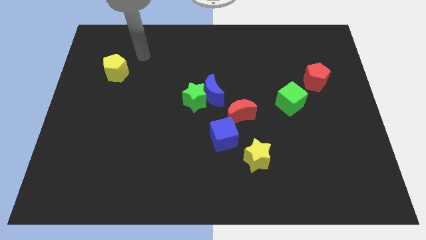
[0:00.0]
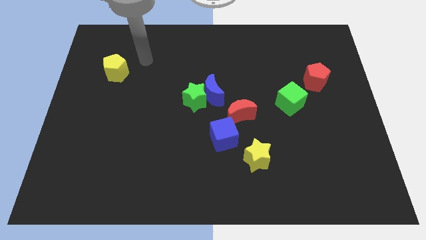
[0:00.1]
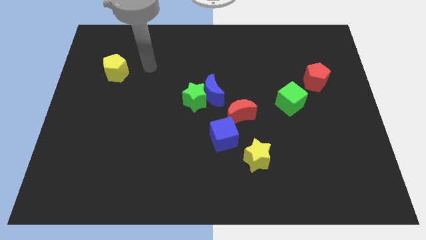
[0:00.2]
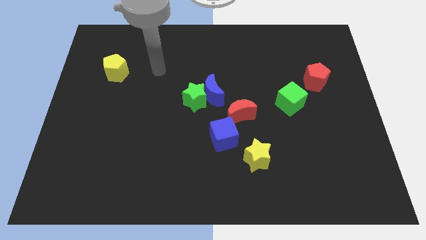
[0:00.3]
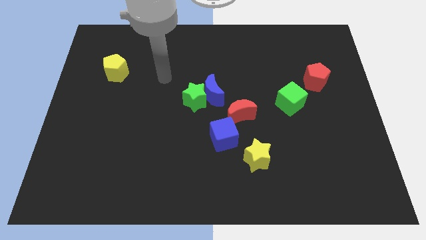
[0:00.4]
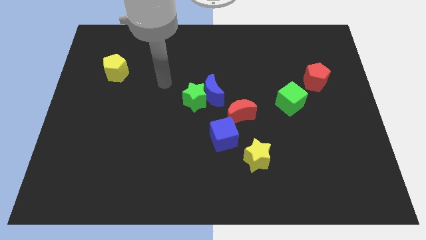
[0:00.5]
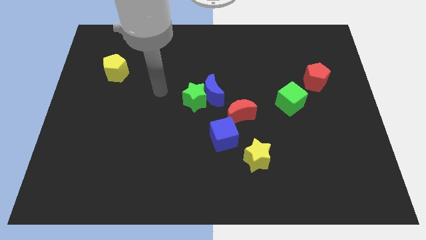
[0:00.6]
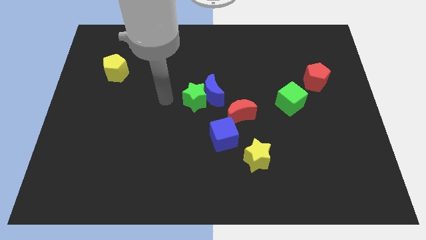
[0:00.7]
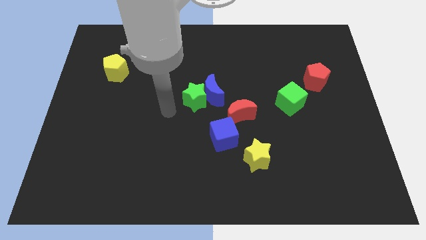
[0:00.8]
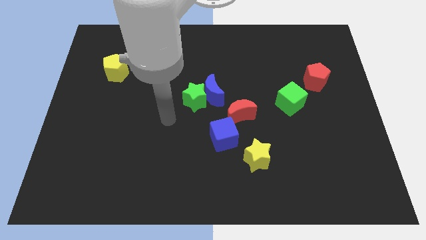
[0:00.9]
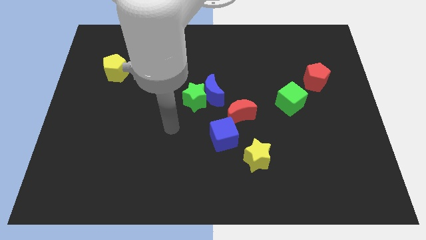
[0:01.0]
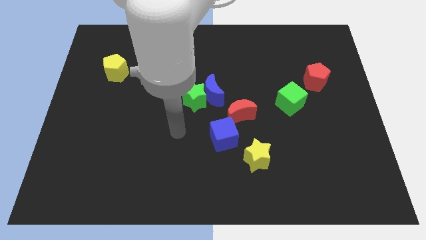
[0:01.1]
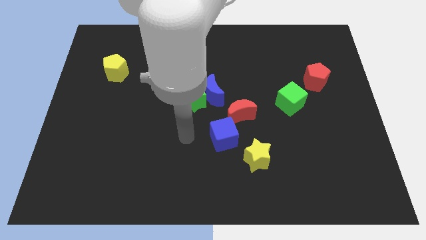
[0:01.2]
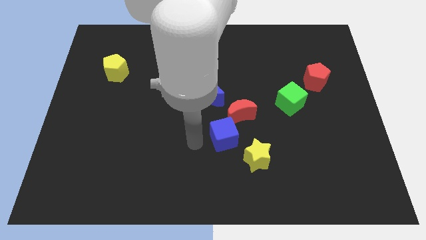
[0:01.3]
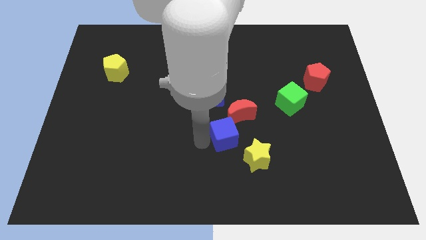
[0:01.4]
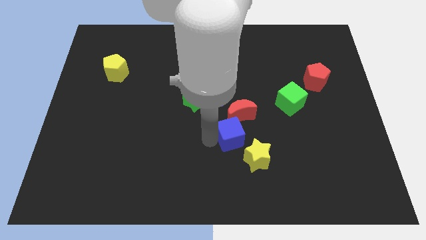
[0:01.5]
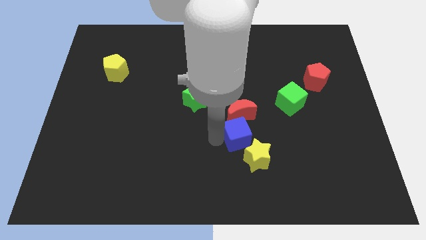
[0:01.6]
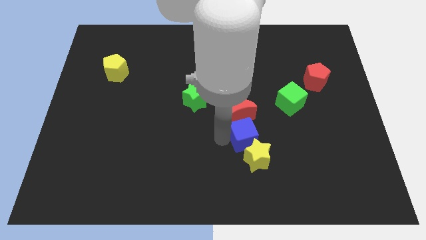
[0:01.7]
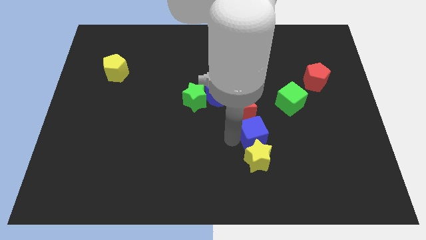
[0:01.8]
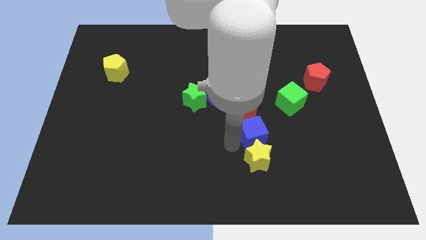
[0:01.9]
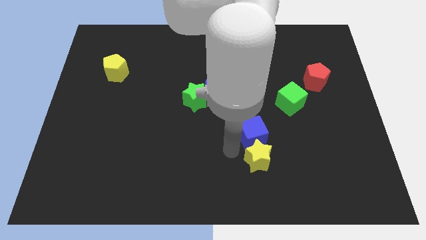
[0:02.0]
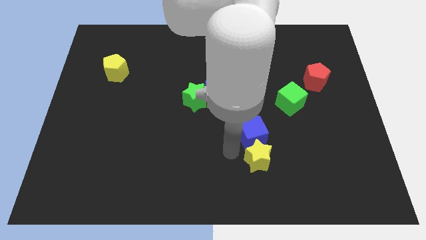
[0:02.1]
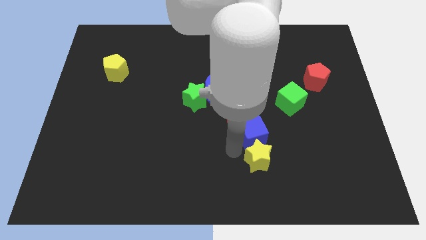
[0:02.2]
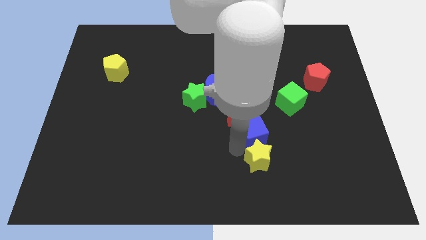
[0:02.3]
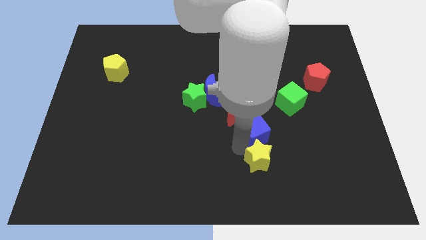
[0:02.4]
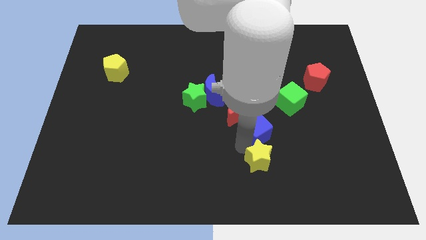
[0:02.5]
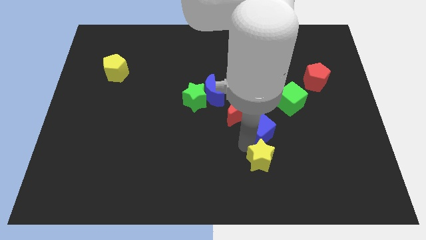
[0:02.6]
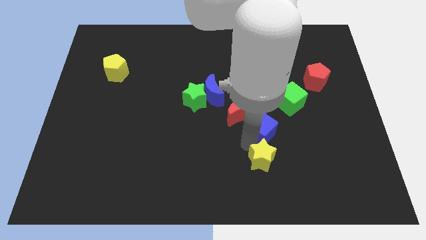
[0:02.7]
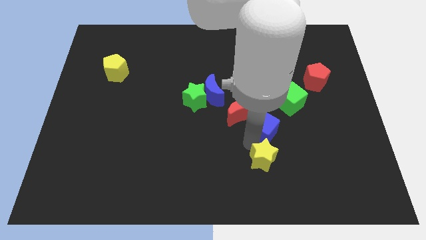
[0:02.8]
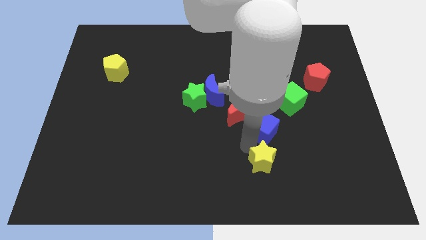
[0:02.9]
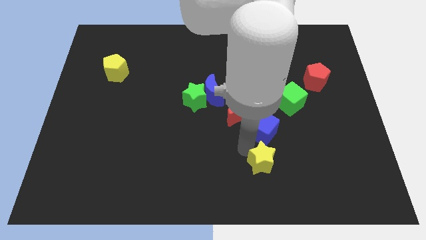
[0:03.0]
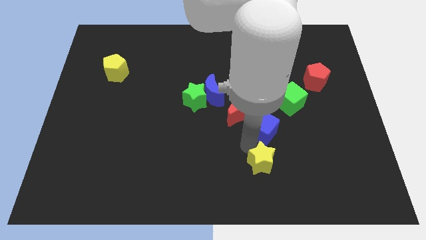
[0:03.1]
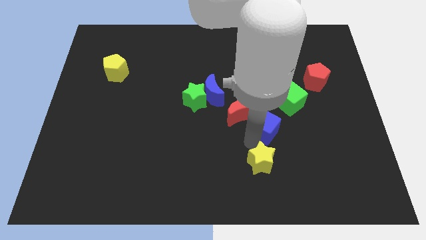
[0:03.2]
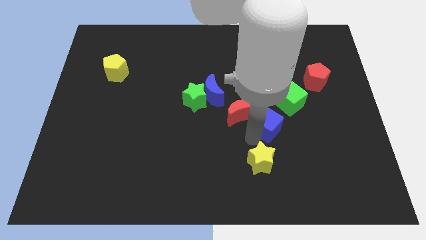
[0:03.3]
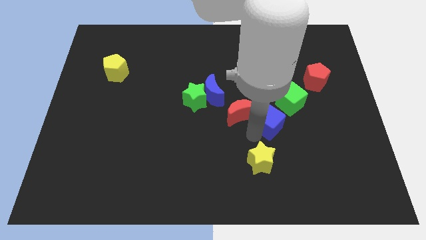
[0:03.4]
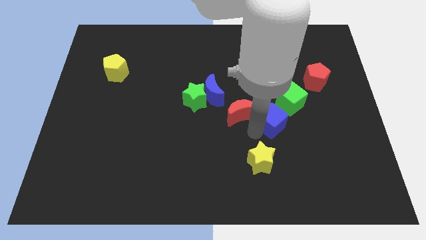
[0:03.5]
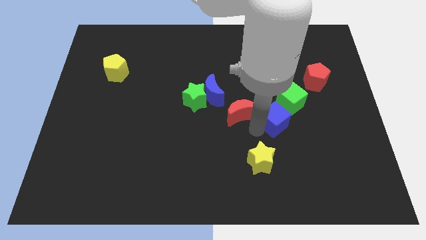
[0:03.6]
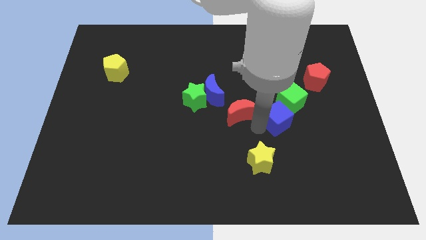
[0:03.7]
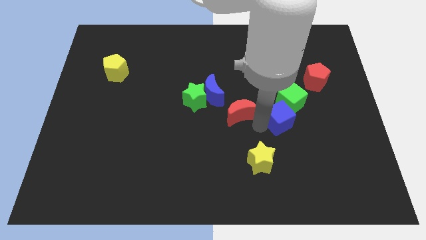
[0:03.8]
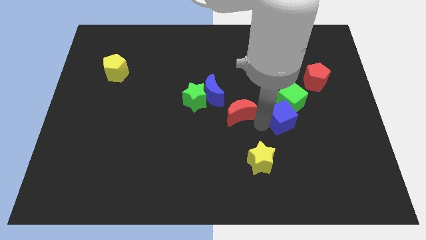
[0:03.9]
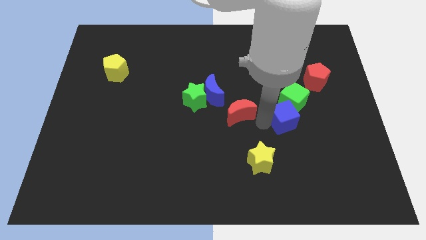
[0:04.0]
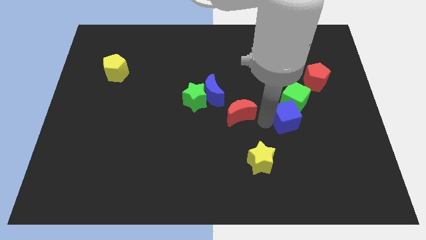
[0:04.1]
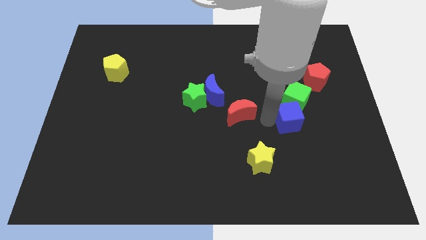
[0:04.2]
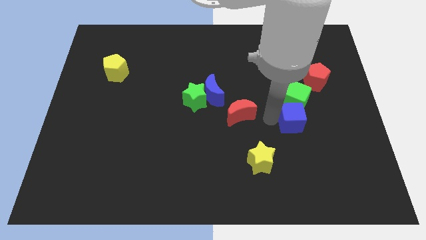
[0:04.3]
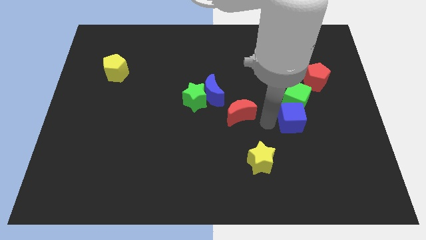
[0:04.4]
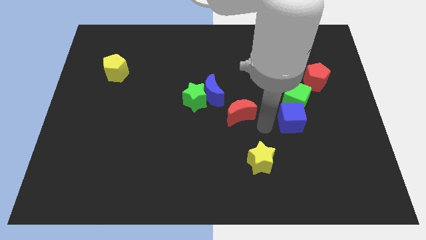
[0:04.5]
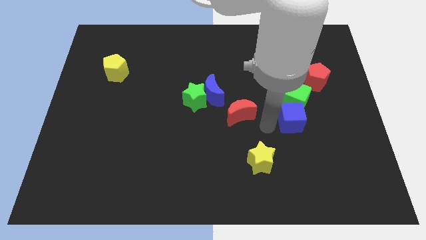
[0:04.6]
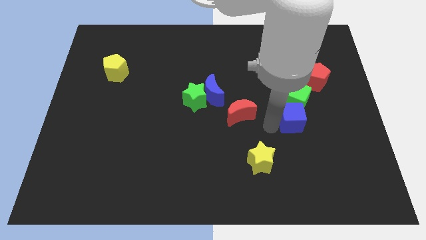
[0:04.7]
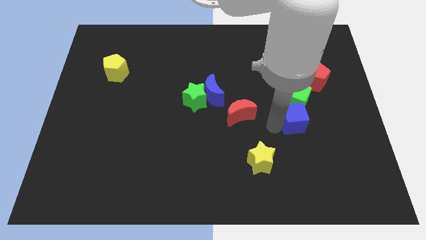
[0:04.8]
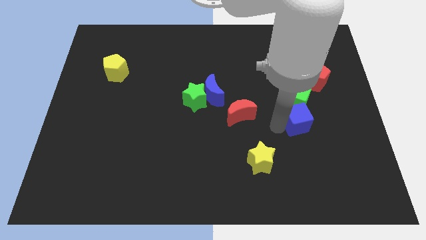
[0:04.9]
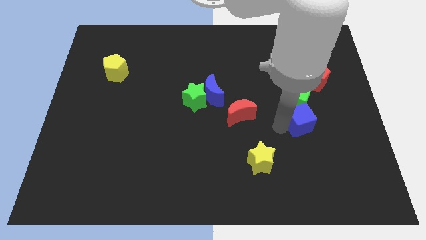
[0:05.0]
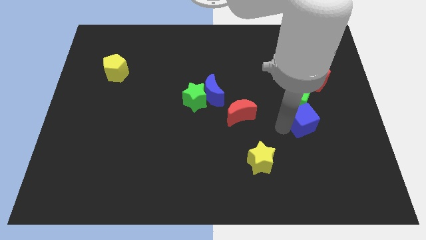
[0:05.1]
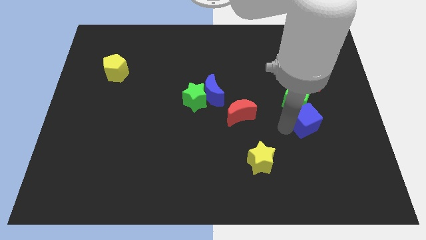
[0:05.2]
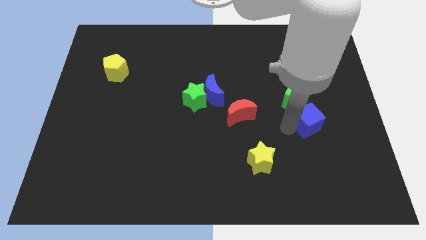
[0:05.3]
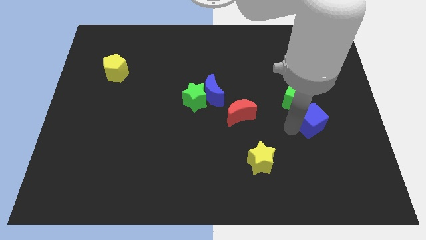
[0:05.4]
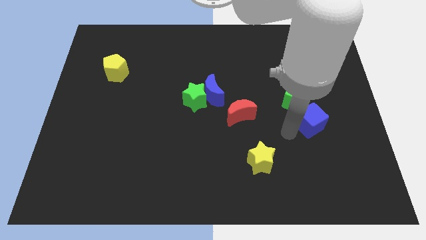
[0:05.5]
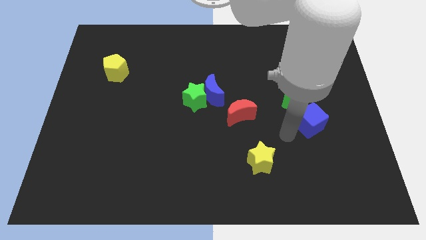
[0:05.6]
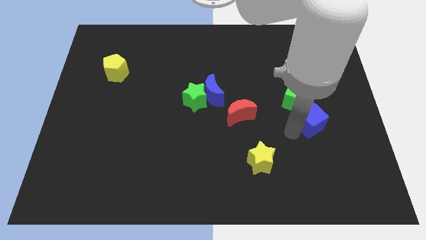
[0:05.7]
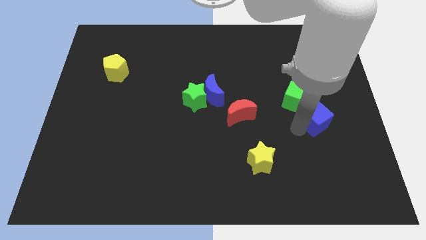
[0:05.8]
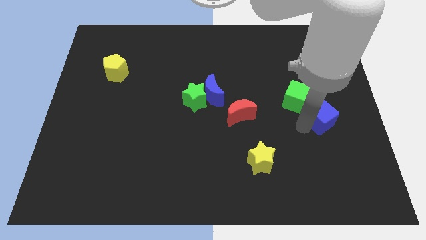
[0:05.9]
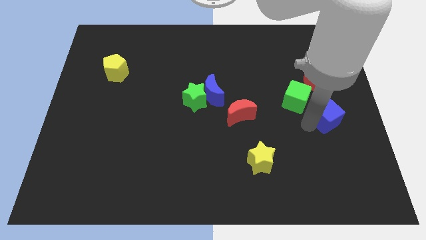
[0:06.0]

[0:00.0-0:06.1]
put the blue cube to the center right

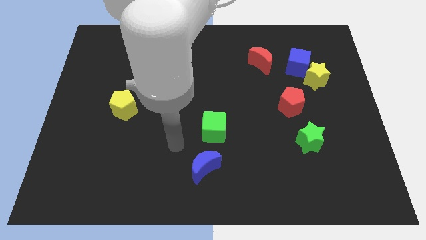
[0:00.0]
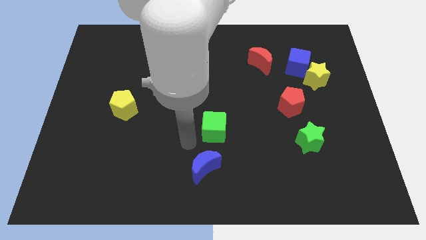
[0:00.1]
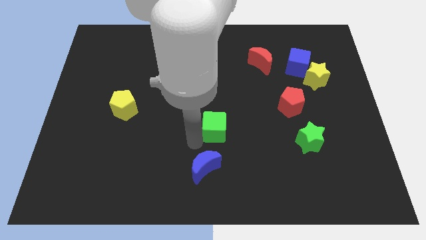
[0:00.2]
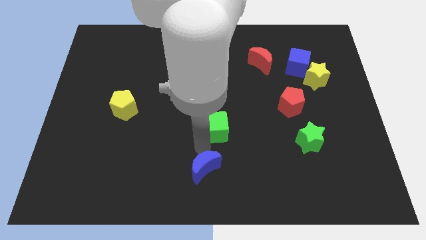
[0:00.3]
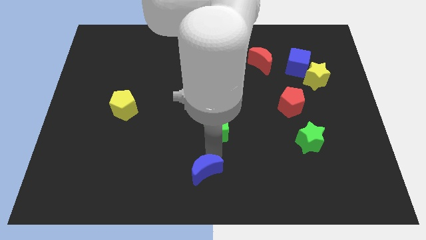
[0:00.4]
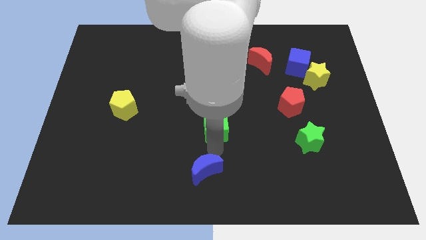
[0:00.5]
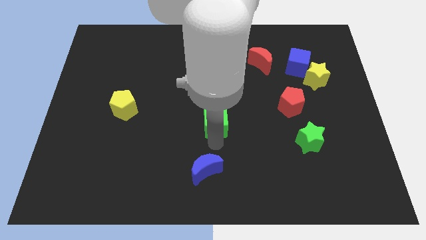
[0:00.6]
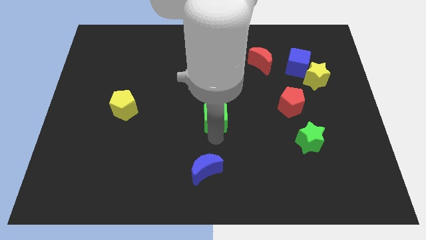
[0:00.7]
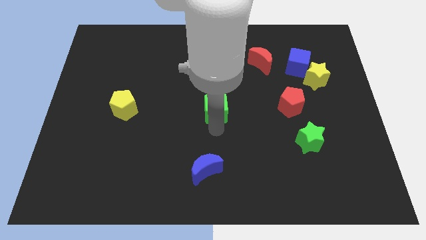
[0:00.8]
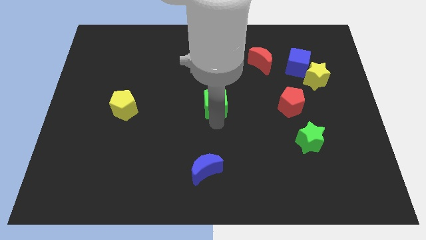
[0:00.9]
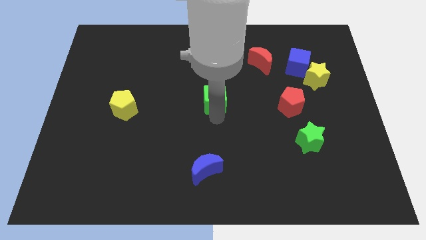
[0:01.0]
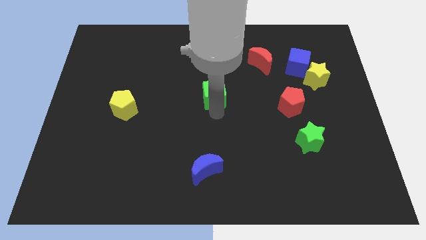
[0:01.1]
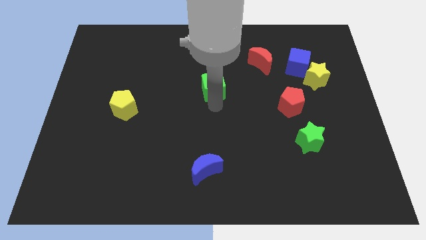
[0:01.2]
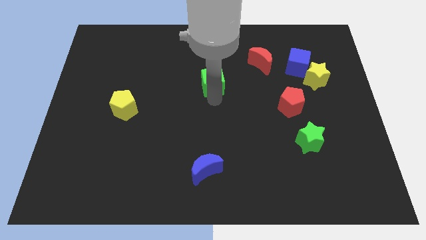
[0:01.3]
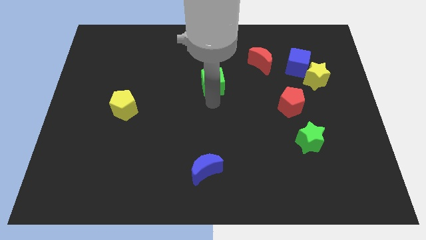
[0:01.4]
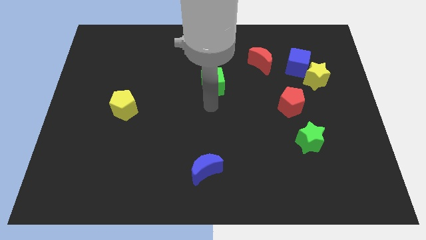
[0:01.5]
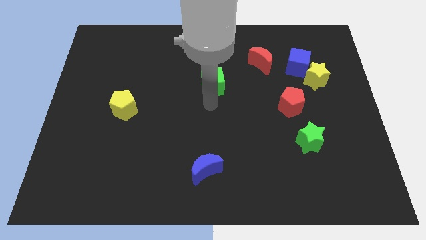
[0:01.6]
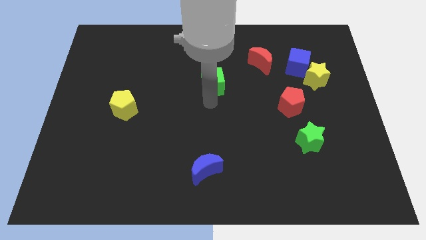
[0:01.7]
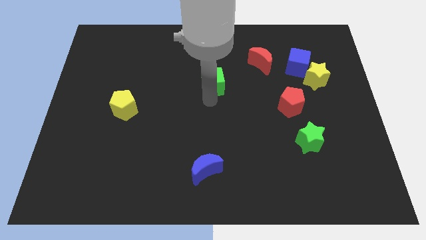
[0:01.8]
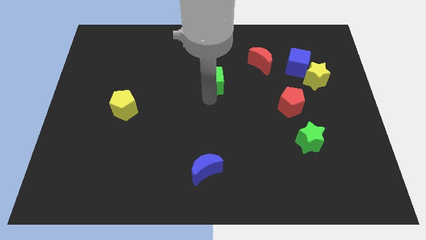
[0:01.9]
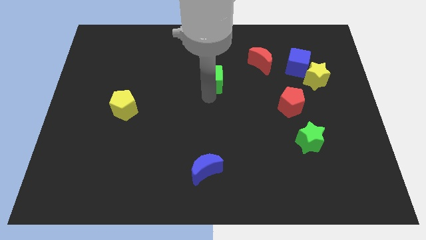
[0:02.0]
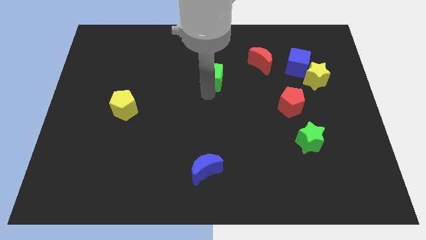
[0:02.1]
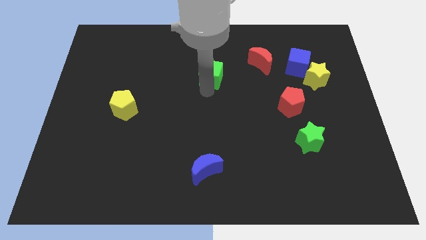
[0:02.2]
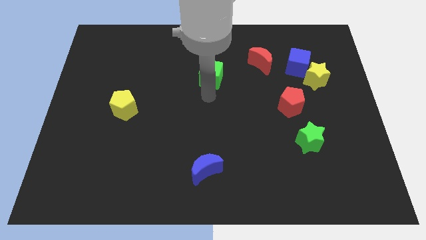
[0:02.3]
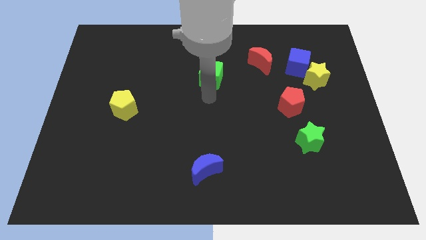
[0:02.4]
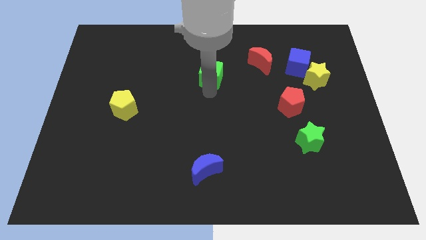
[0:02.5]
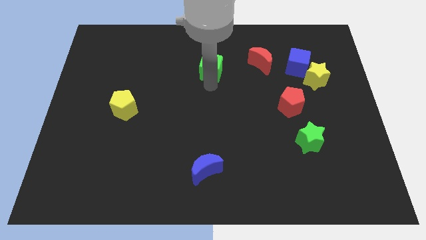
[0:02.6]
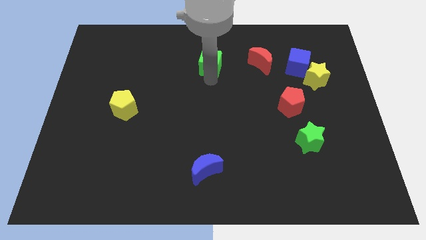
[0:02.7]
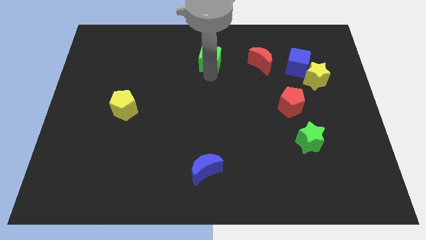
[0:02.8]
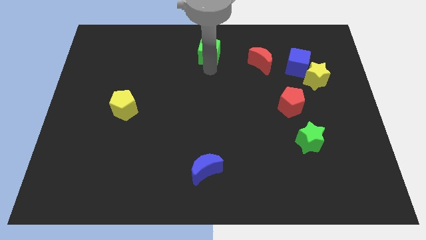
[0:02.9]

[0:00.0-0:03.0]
push the green cube to the top
